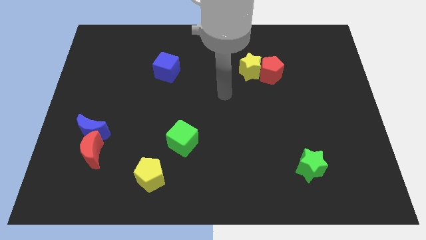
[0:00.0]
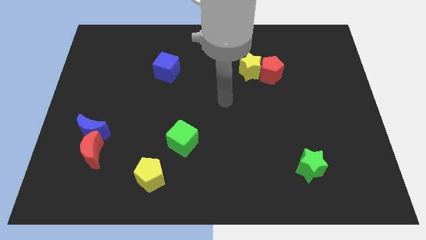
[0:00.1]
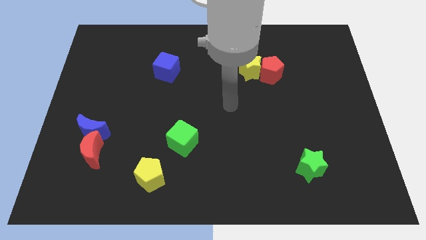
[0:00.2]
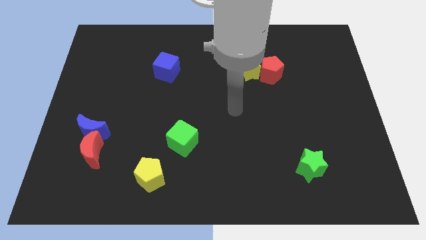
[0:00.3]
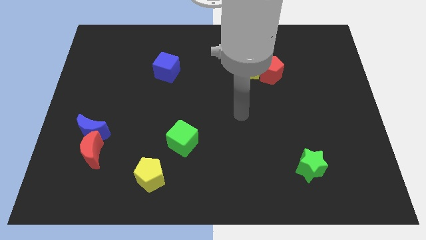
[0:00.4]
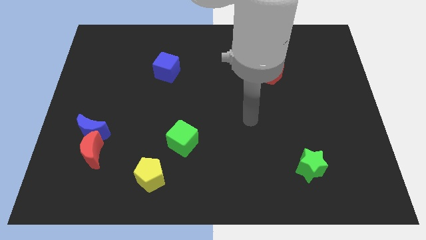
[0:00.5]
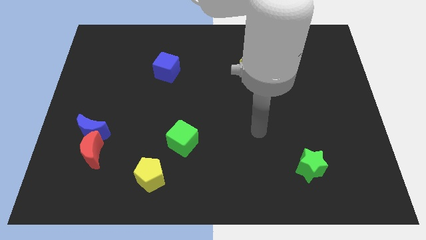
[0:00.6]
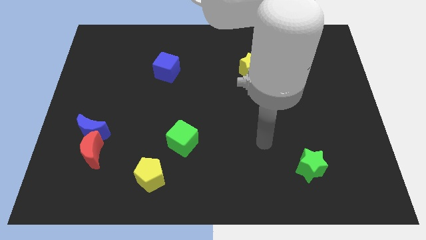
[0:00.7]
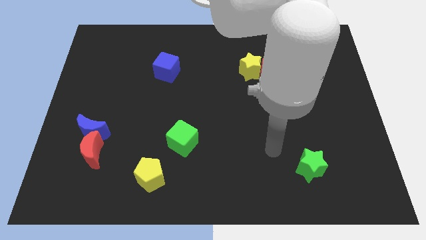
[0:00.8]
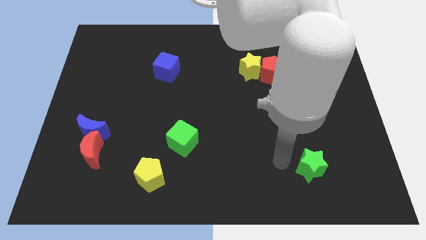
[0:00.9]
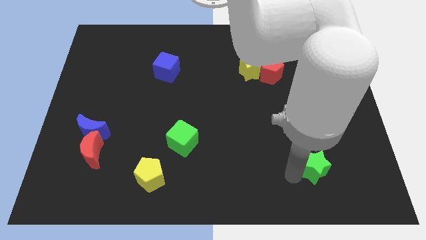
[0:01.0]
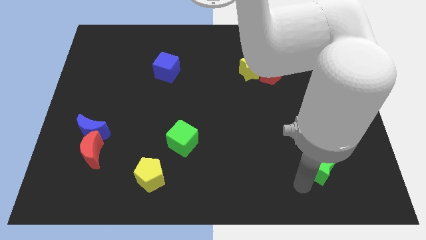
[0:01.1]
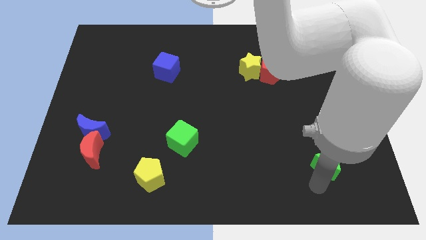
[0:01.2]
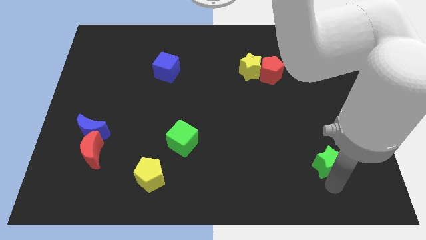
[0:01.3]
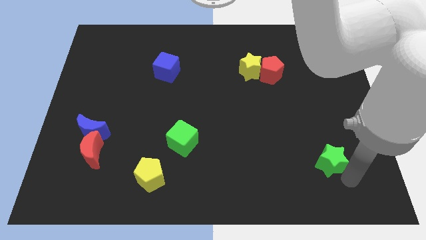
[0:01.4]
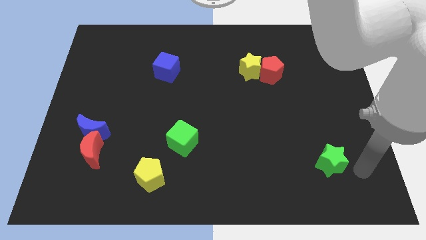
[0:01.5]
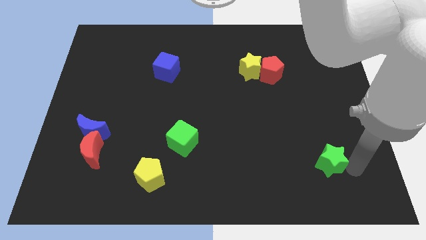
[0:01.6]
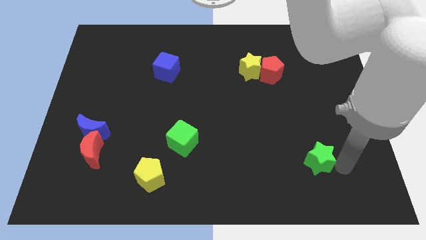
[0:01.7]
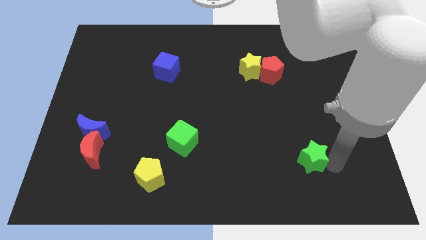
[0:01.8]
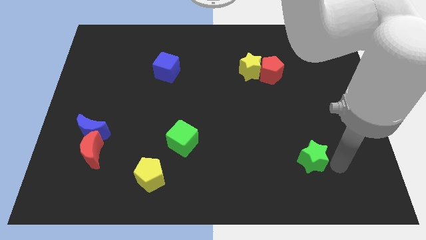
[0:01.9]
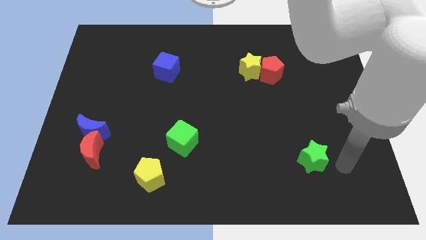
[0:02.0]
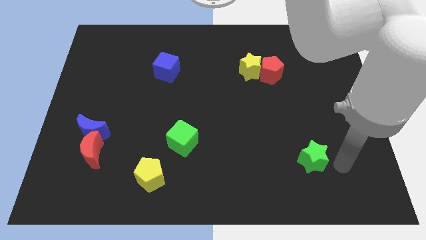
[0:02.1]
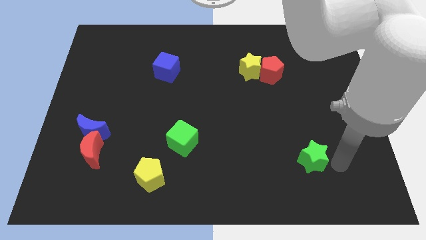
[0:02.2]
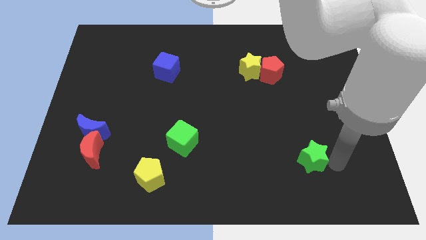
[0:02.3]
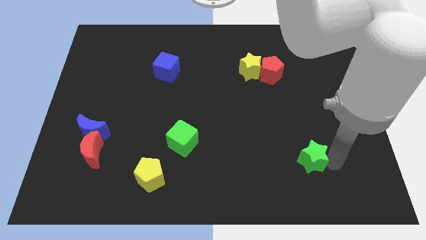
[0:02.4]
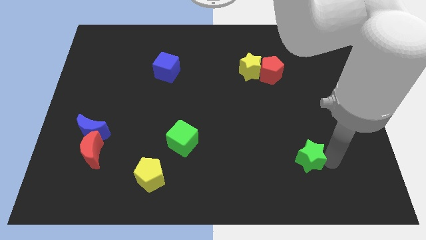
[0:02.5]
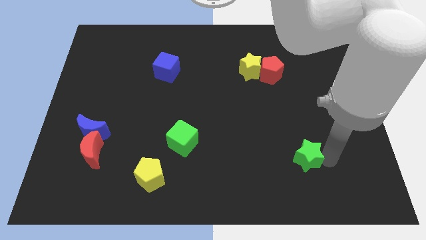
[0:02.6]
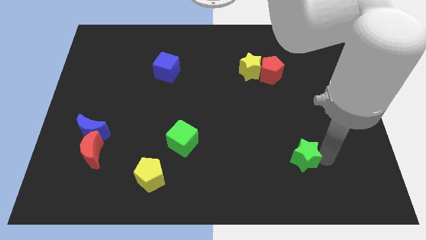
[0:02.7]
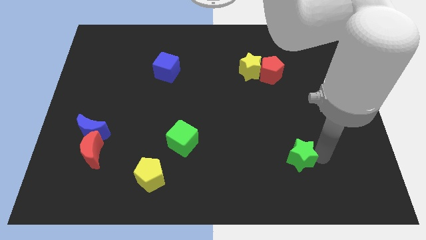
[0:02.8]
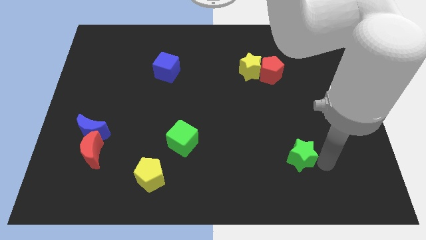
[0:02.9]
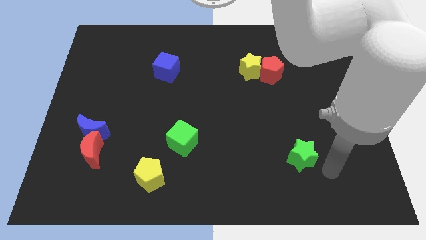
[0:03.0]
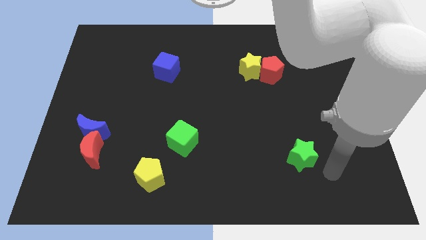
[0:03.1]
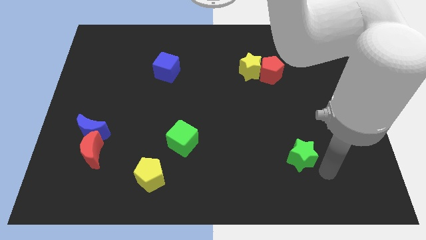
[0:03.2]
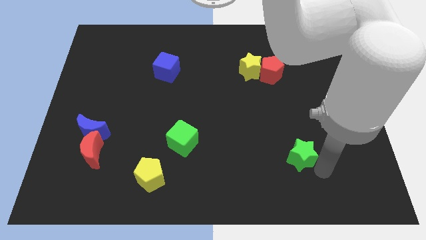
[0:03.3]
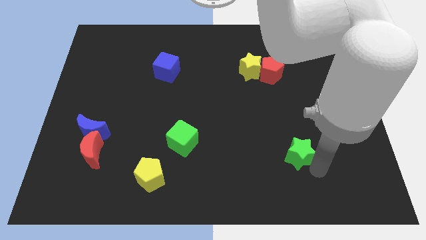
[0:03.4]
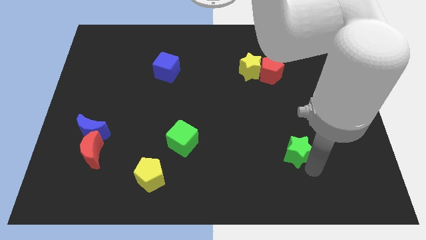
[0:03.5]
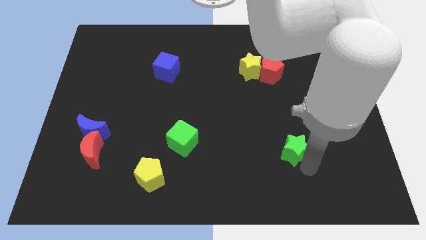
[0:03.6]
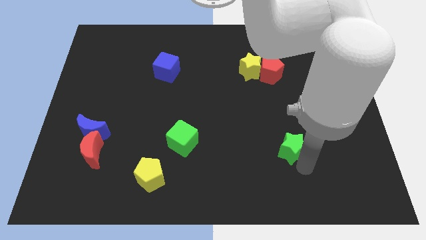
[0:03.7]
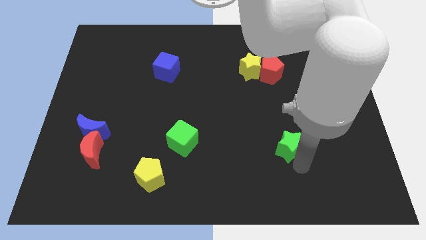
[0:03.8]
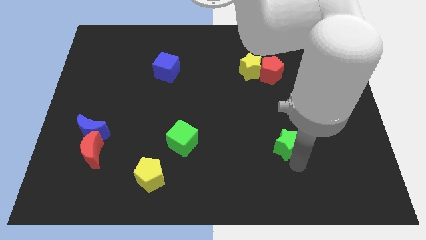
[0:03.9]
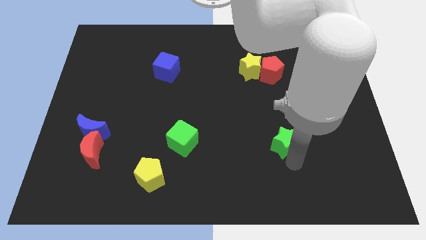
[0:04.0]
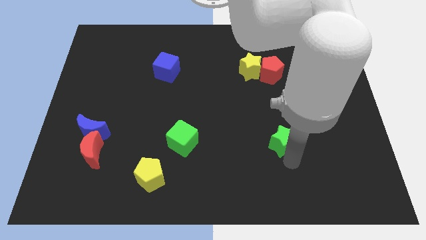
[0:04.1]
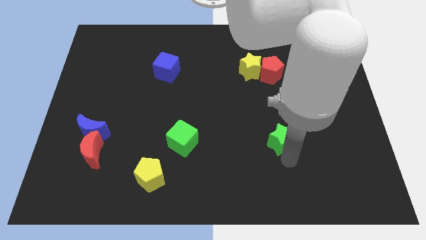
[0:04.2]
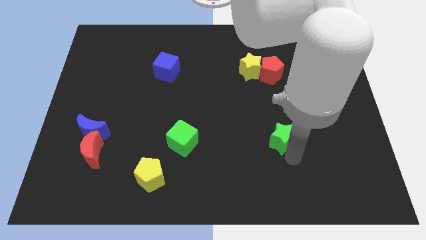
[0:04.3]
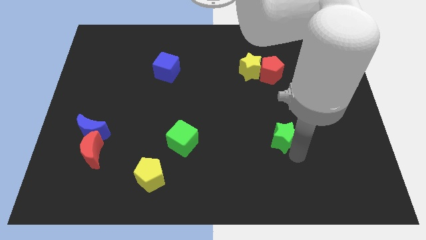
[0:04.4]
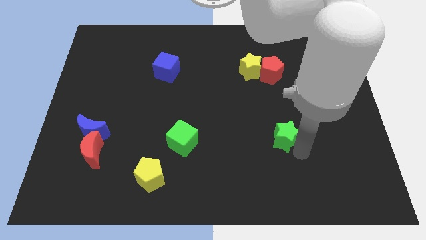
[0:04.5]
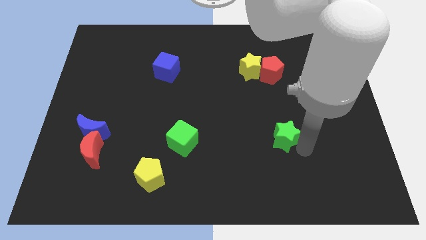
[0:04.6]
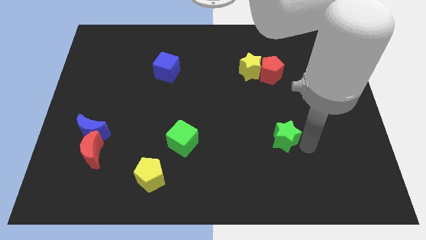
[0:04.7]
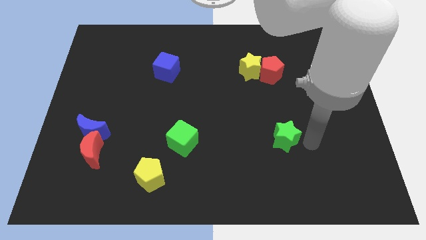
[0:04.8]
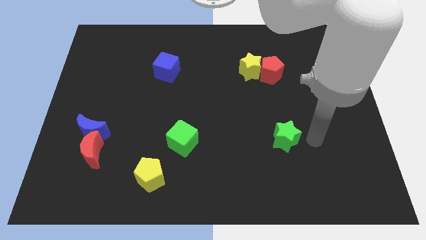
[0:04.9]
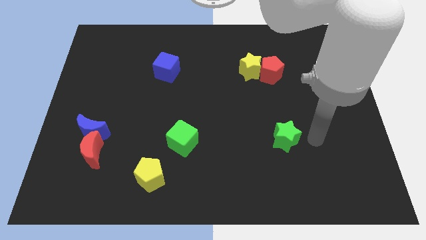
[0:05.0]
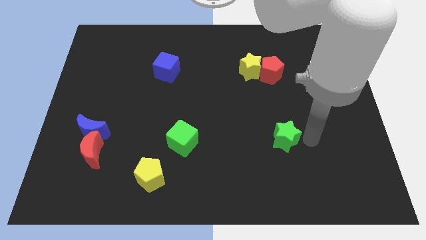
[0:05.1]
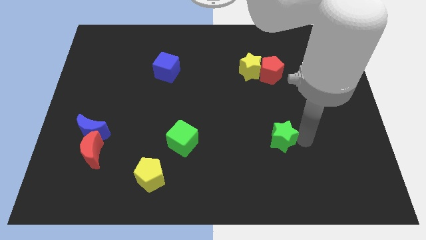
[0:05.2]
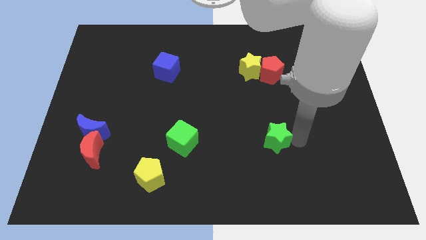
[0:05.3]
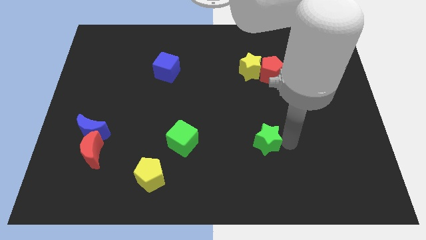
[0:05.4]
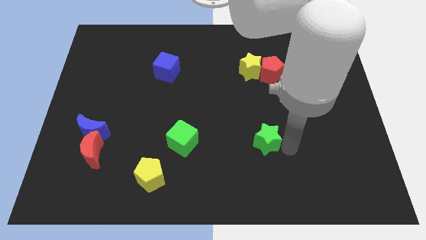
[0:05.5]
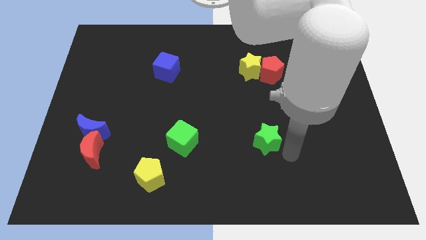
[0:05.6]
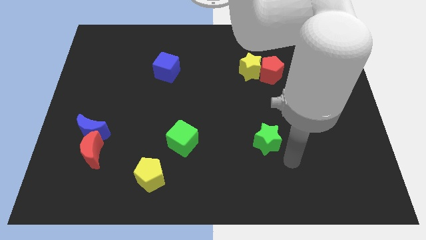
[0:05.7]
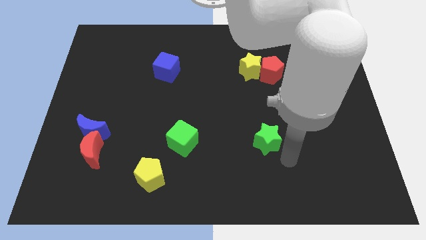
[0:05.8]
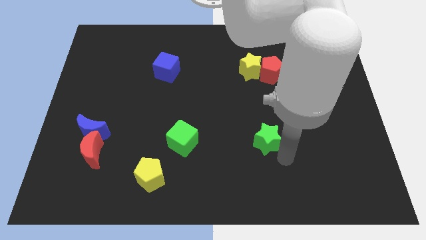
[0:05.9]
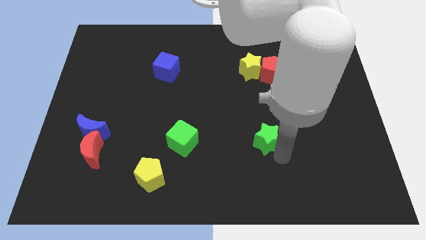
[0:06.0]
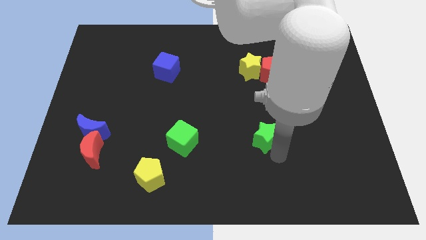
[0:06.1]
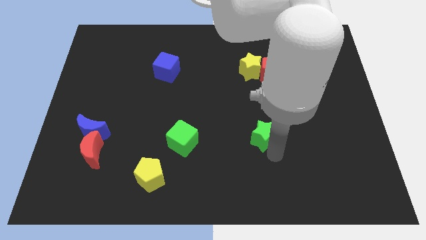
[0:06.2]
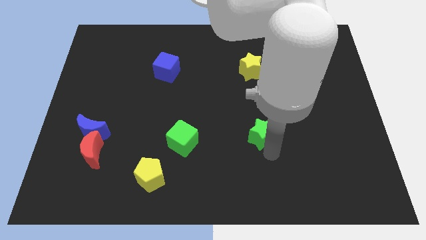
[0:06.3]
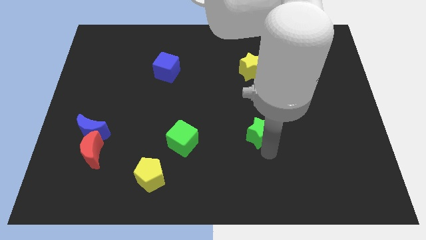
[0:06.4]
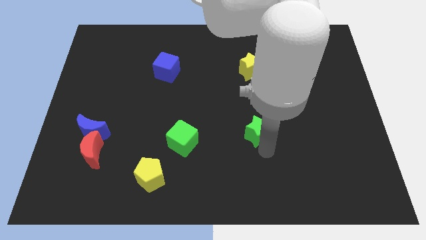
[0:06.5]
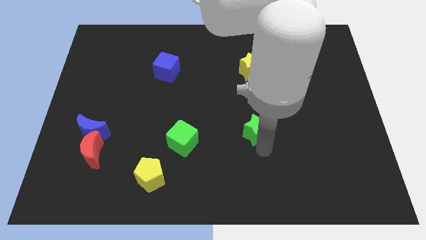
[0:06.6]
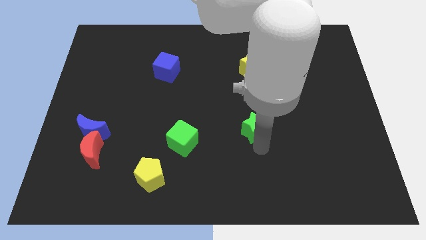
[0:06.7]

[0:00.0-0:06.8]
slide the green star to the center
